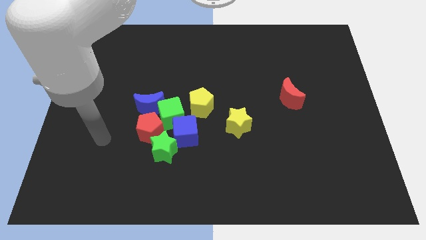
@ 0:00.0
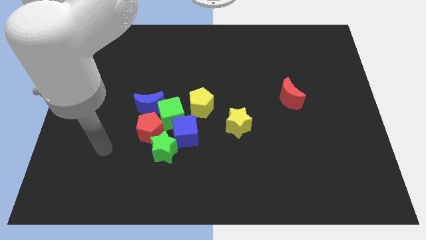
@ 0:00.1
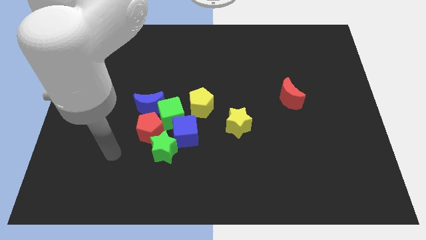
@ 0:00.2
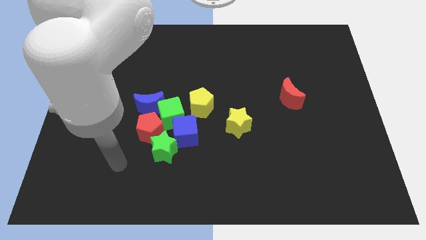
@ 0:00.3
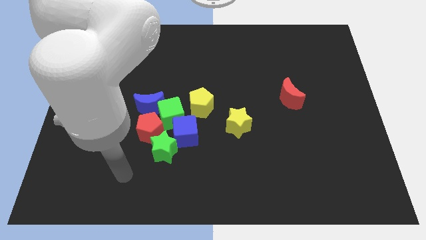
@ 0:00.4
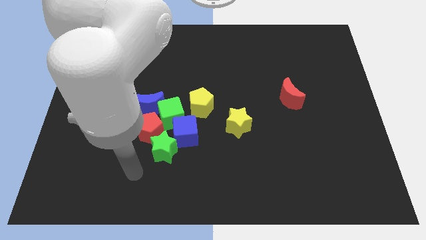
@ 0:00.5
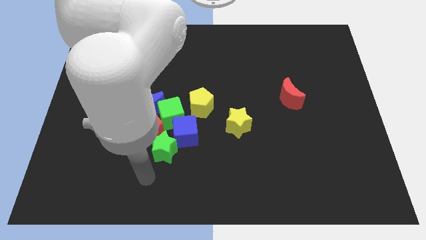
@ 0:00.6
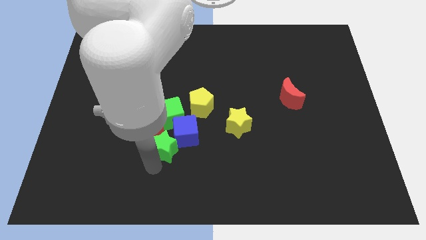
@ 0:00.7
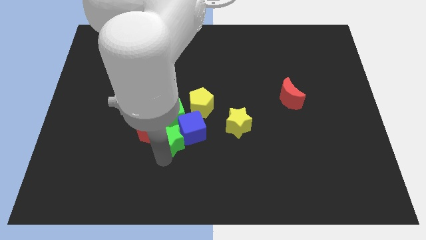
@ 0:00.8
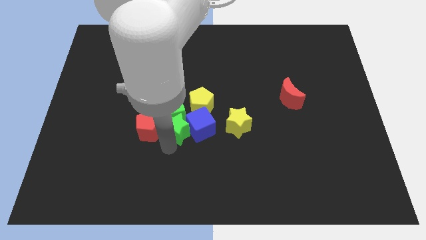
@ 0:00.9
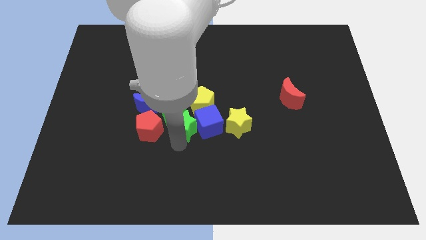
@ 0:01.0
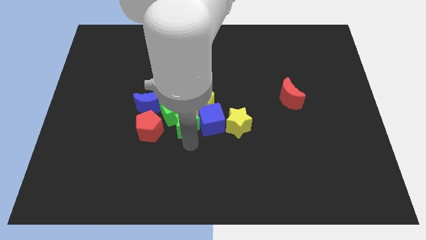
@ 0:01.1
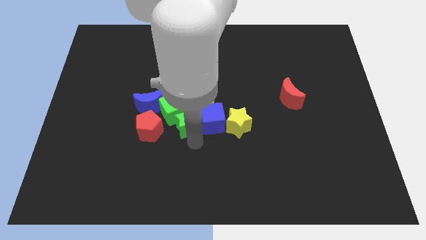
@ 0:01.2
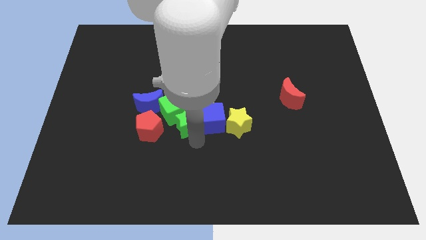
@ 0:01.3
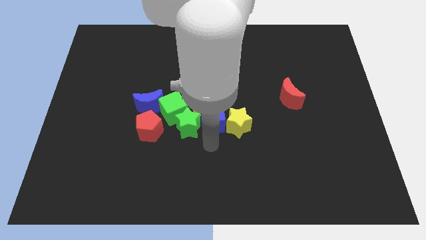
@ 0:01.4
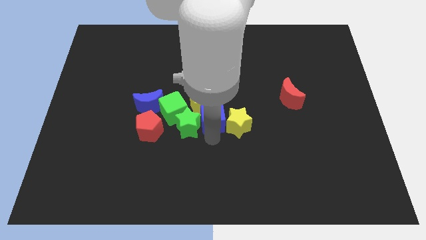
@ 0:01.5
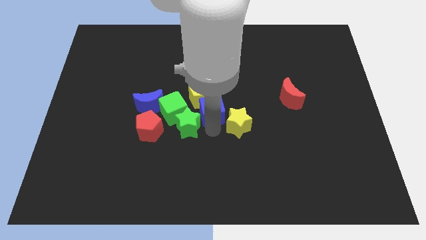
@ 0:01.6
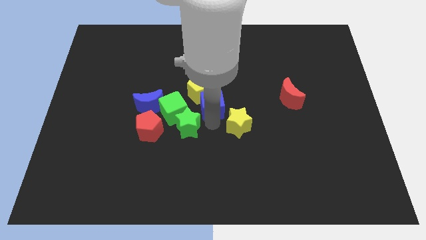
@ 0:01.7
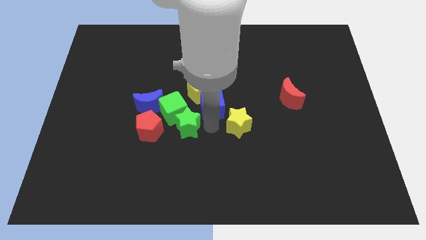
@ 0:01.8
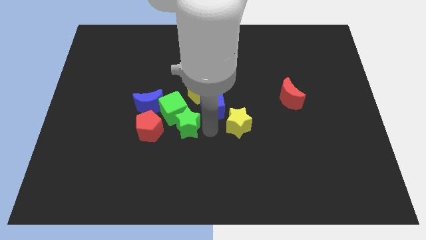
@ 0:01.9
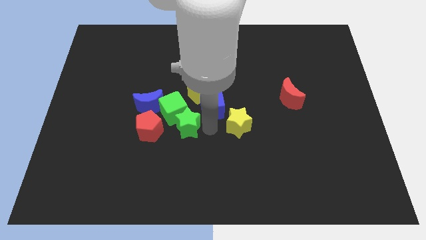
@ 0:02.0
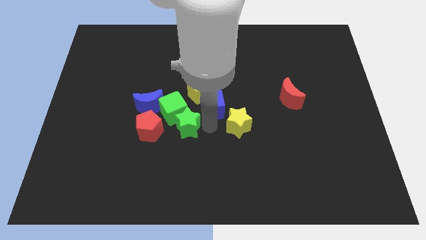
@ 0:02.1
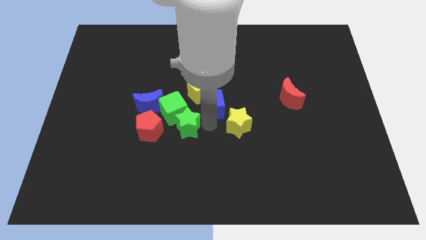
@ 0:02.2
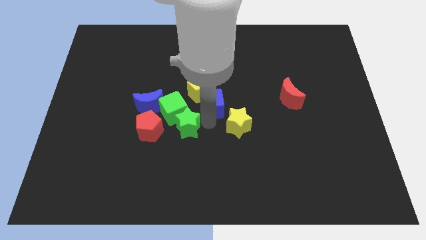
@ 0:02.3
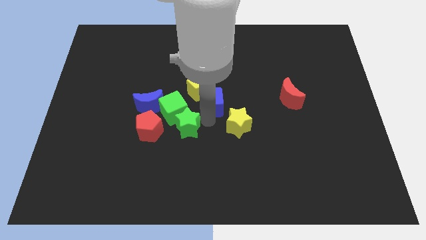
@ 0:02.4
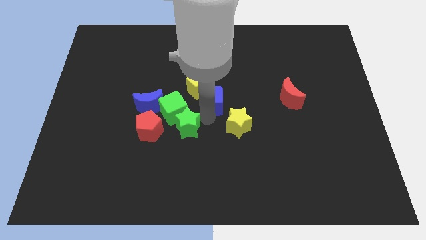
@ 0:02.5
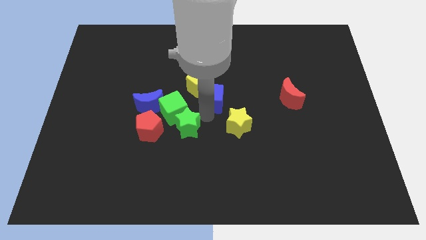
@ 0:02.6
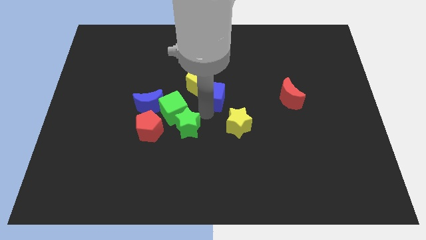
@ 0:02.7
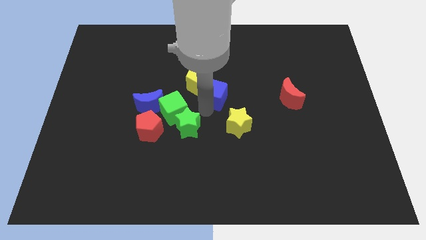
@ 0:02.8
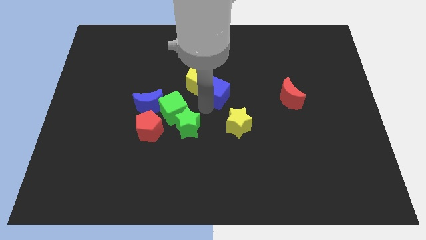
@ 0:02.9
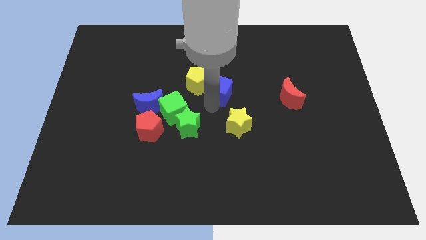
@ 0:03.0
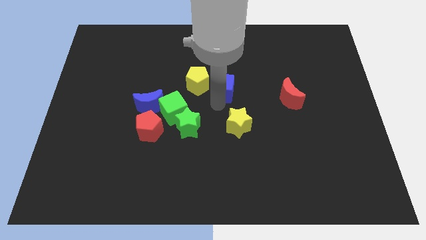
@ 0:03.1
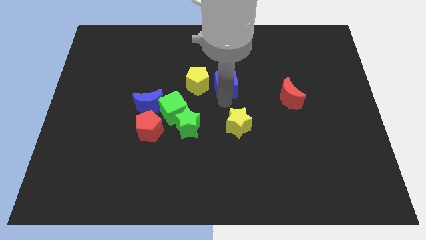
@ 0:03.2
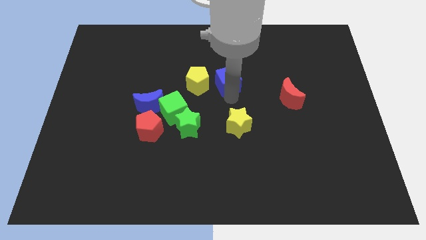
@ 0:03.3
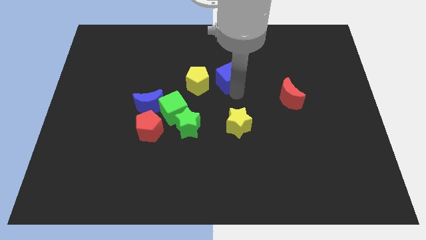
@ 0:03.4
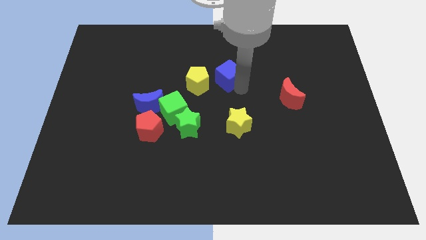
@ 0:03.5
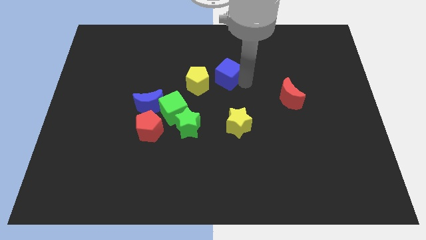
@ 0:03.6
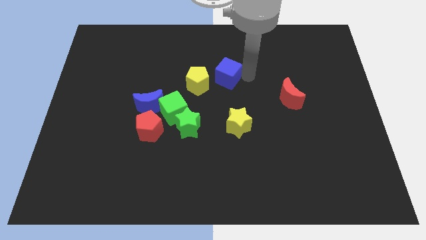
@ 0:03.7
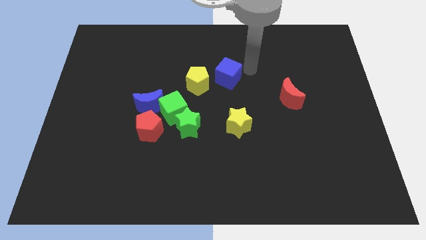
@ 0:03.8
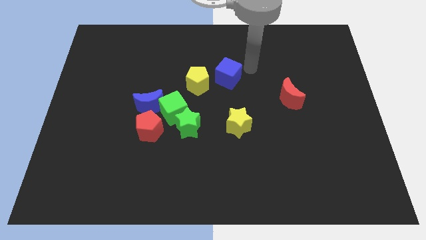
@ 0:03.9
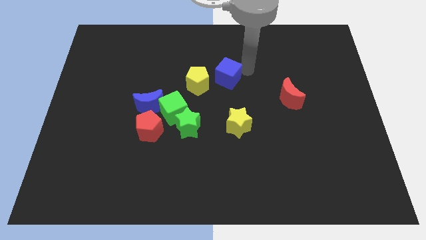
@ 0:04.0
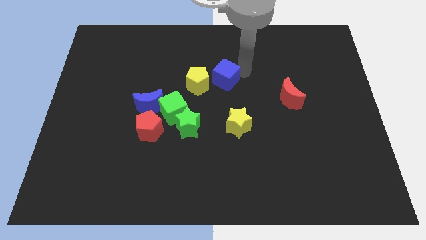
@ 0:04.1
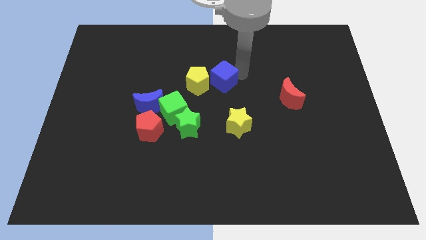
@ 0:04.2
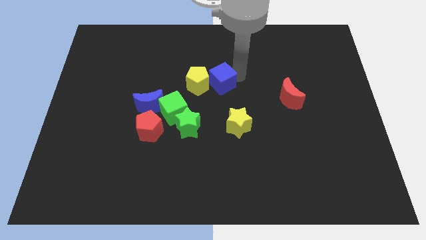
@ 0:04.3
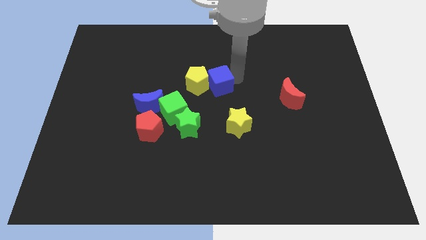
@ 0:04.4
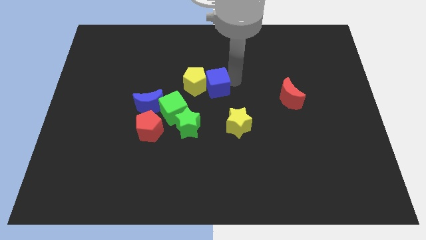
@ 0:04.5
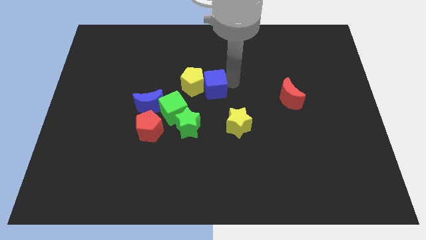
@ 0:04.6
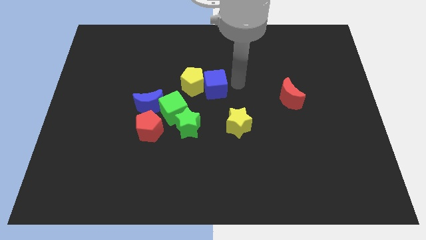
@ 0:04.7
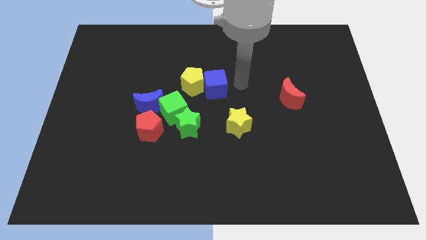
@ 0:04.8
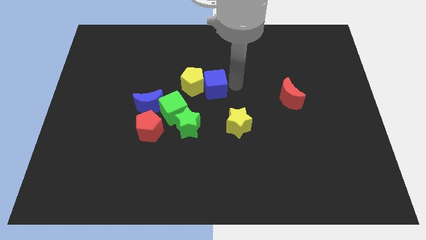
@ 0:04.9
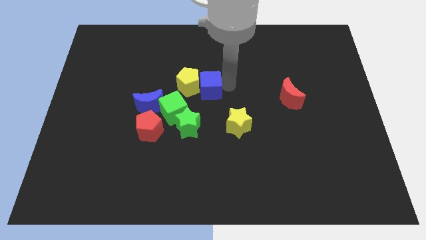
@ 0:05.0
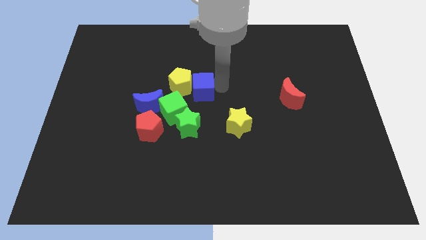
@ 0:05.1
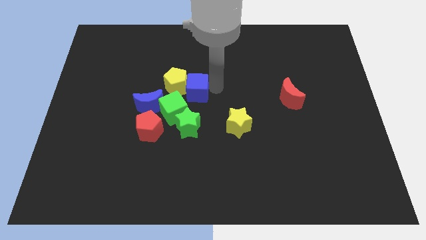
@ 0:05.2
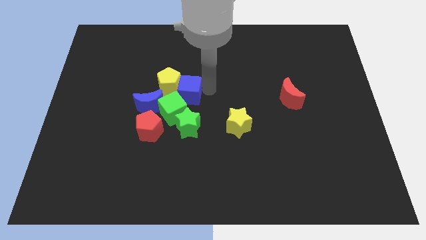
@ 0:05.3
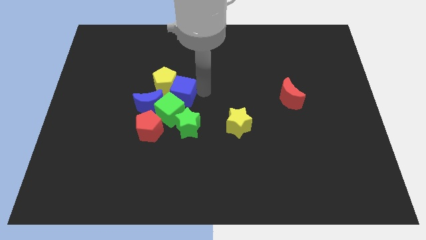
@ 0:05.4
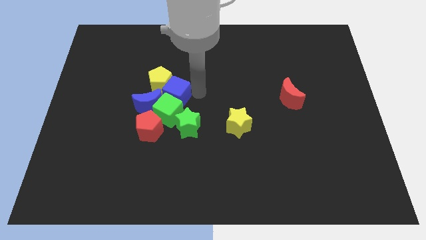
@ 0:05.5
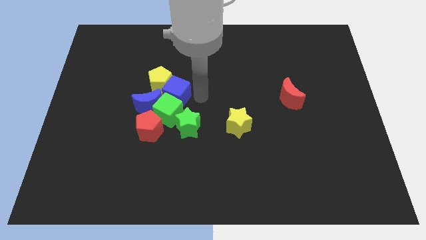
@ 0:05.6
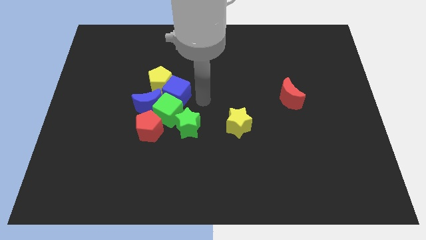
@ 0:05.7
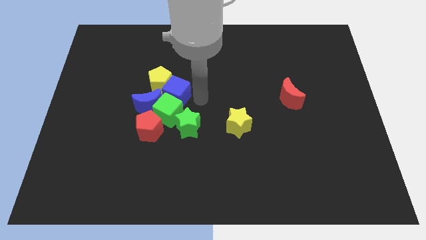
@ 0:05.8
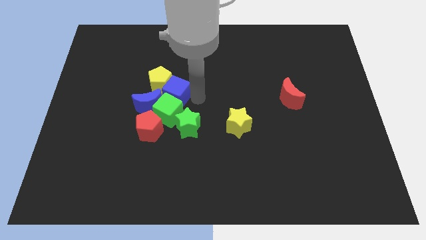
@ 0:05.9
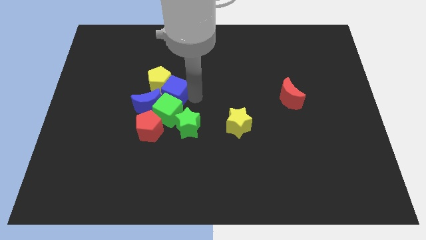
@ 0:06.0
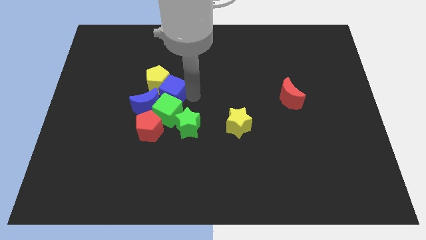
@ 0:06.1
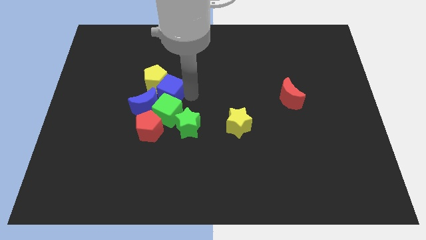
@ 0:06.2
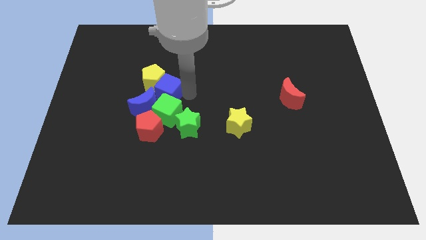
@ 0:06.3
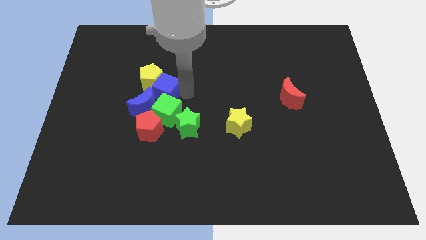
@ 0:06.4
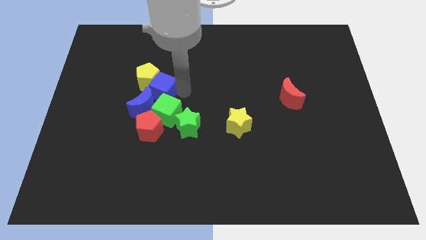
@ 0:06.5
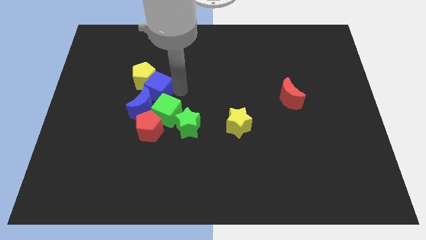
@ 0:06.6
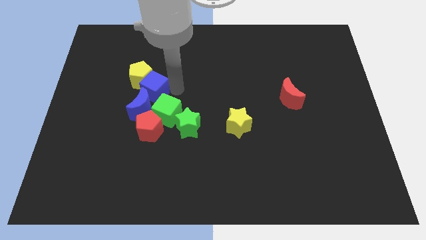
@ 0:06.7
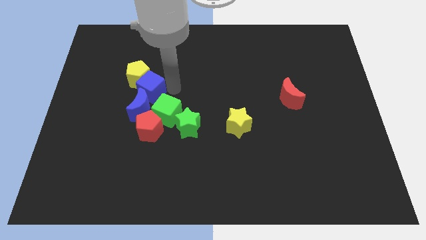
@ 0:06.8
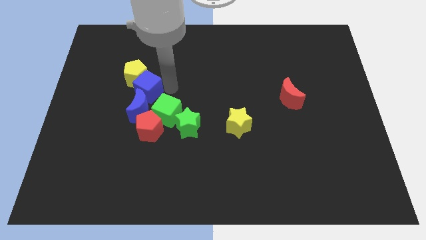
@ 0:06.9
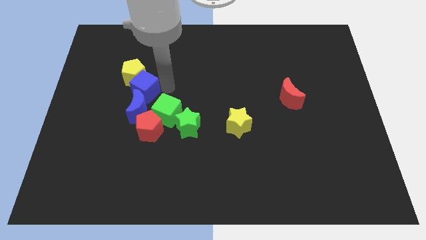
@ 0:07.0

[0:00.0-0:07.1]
put the blue cube to the top left side of the blue moon
